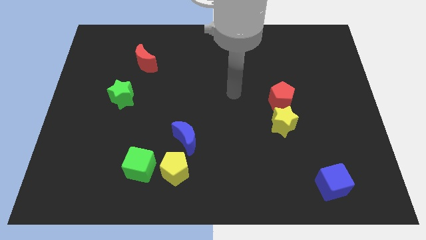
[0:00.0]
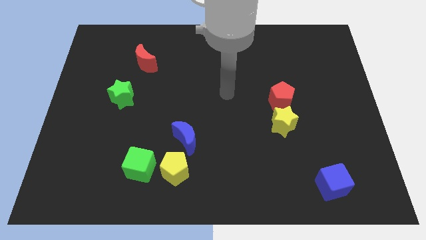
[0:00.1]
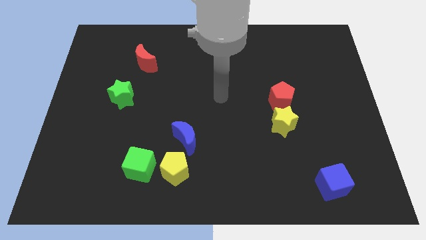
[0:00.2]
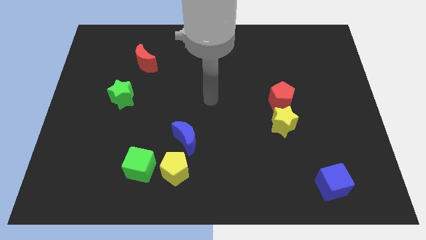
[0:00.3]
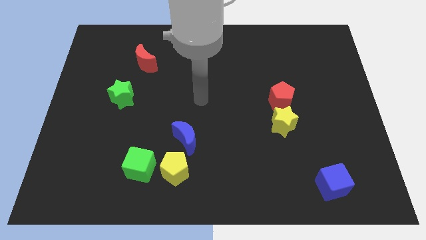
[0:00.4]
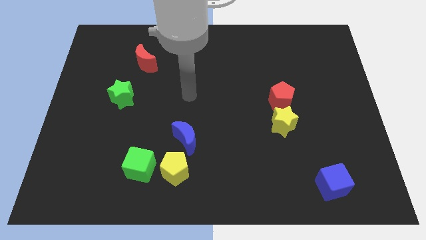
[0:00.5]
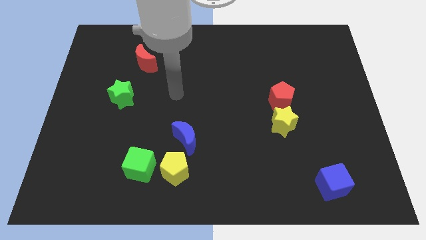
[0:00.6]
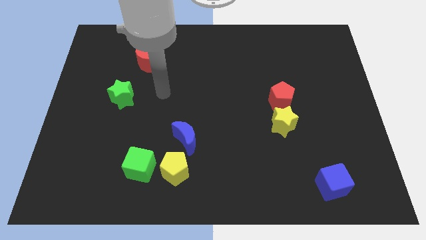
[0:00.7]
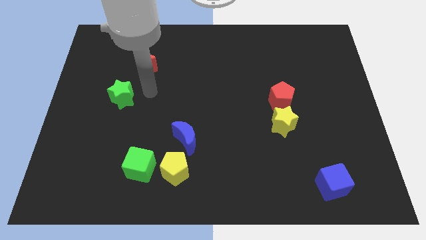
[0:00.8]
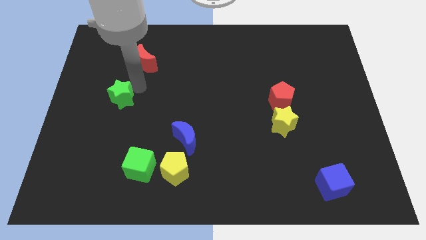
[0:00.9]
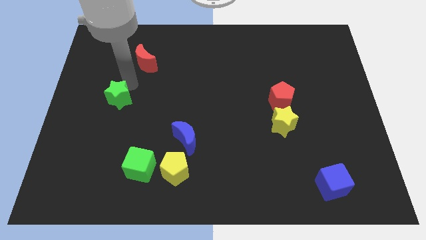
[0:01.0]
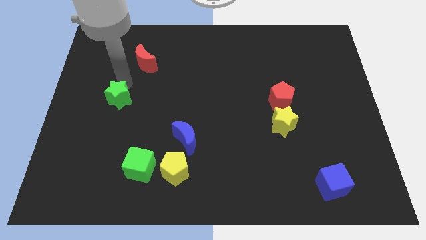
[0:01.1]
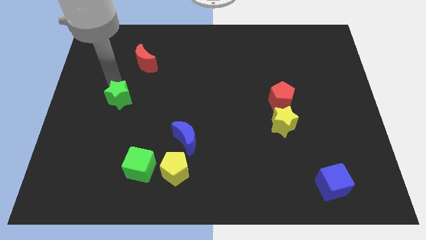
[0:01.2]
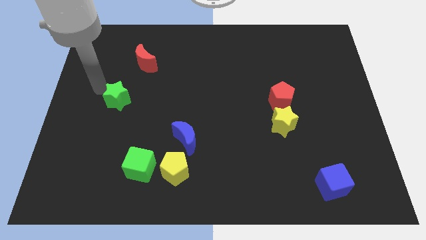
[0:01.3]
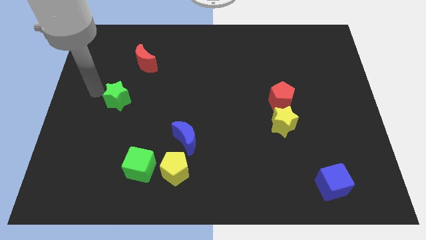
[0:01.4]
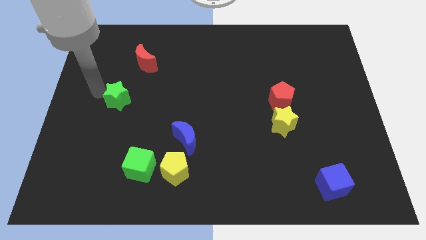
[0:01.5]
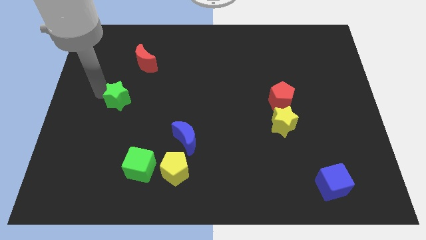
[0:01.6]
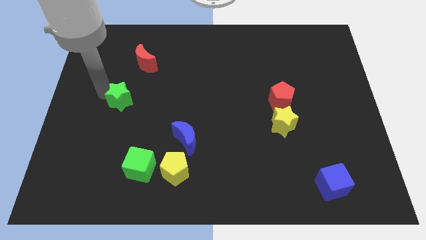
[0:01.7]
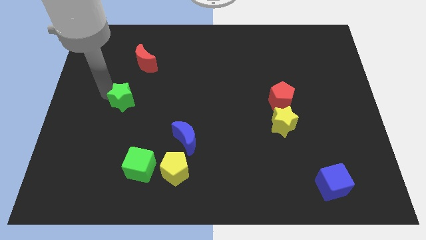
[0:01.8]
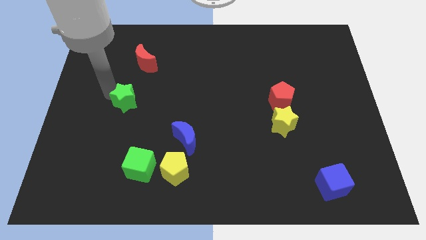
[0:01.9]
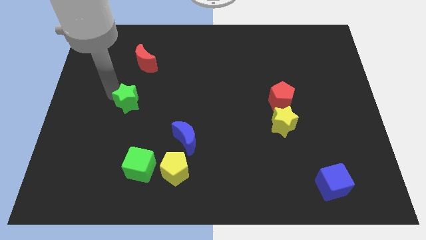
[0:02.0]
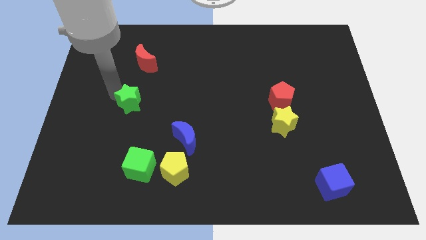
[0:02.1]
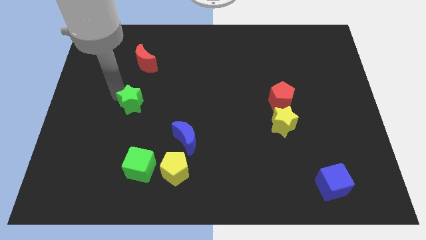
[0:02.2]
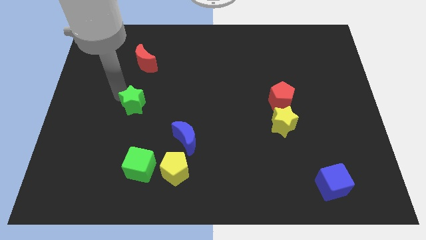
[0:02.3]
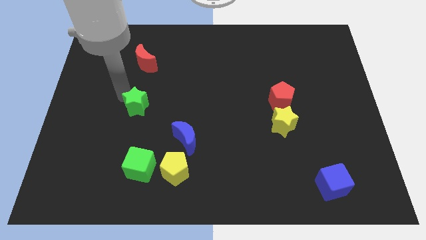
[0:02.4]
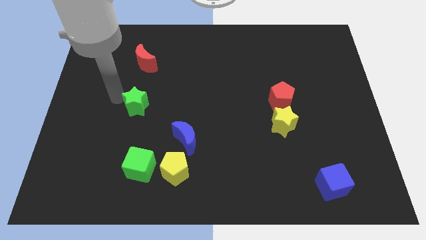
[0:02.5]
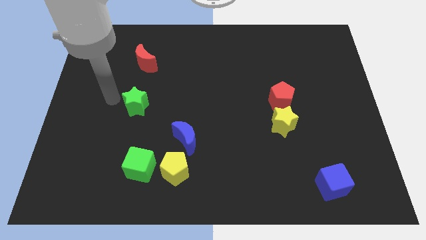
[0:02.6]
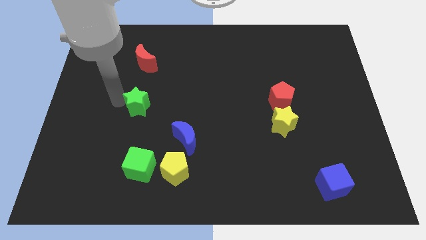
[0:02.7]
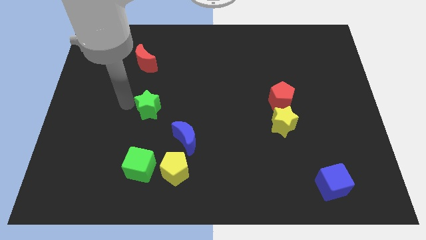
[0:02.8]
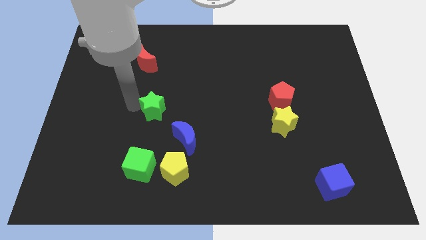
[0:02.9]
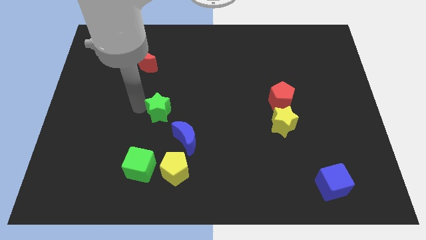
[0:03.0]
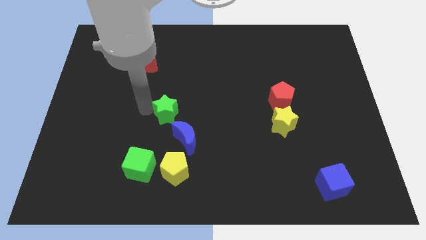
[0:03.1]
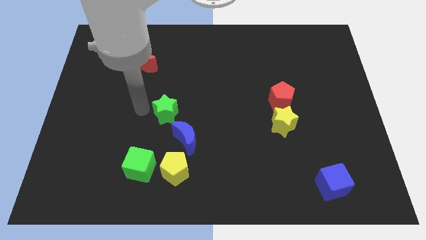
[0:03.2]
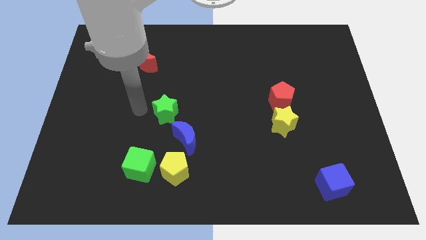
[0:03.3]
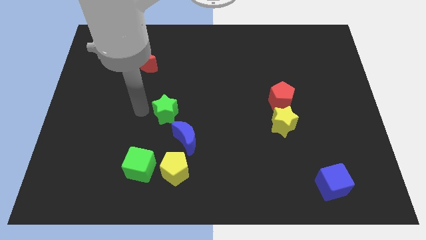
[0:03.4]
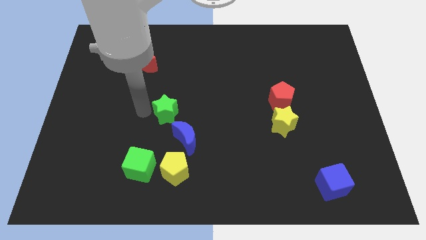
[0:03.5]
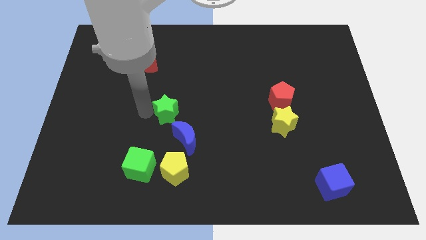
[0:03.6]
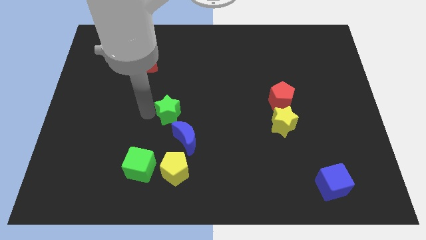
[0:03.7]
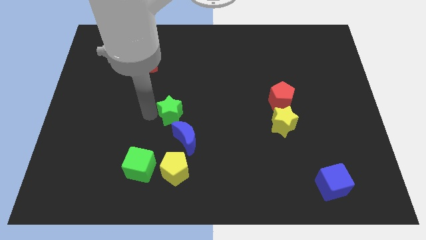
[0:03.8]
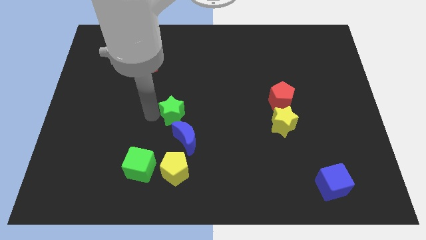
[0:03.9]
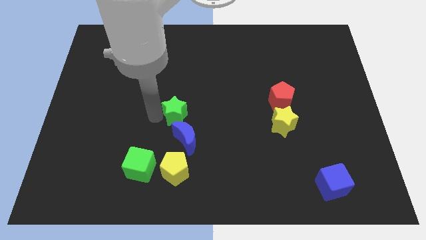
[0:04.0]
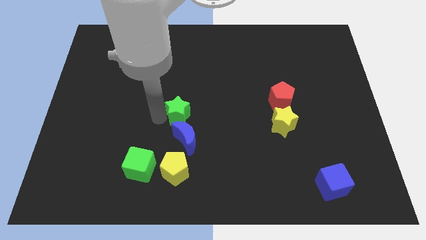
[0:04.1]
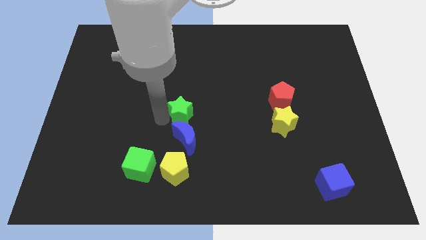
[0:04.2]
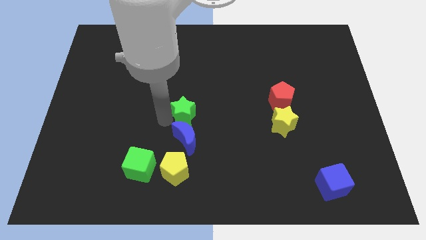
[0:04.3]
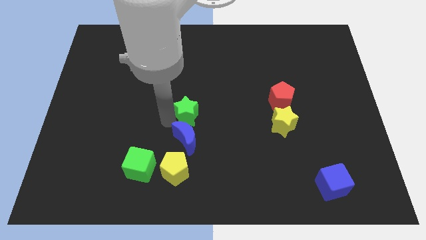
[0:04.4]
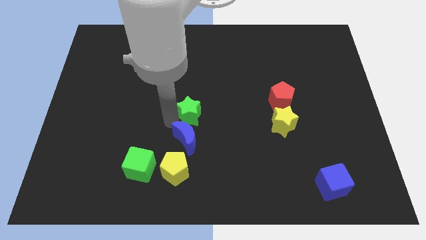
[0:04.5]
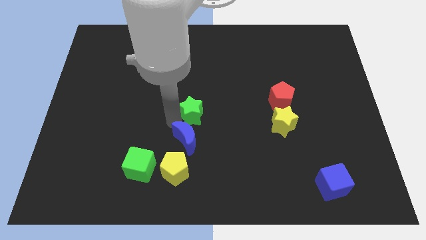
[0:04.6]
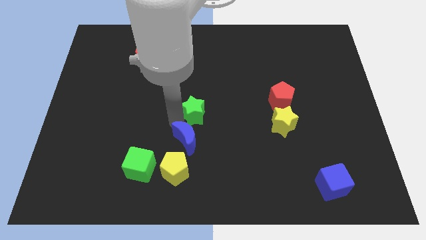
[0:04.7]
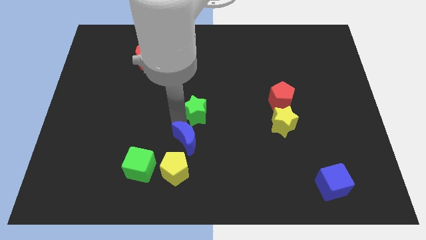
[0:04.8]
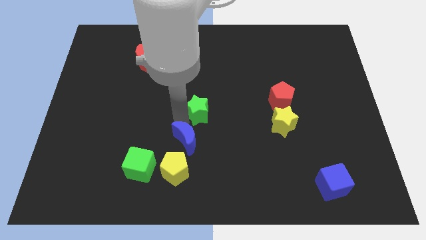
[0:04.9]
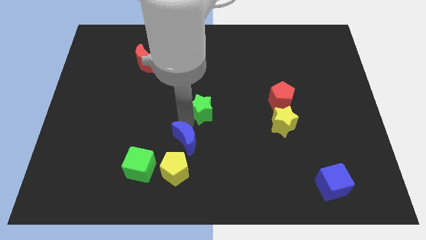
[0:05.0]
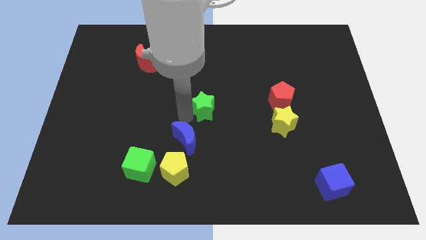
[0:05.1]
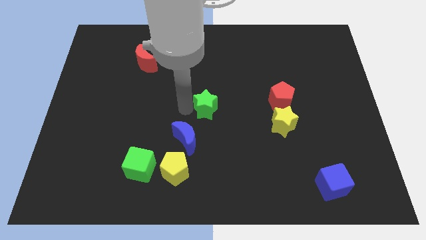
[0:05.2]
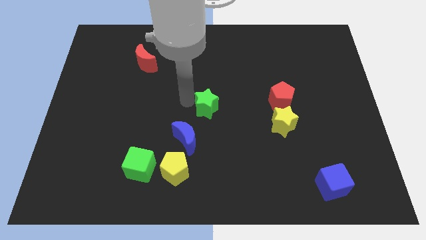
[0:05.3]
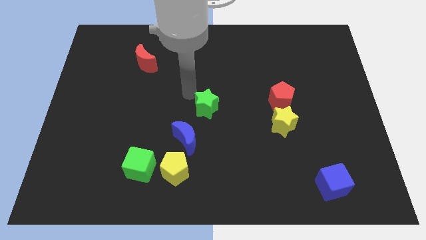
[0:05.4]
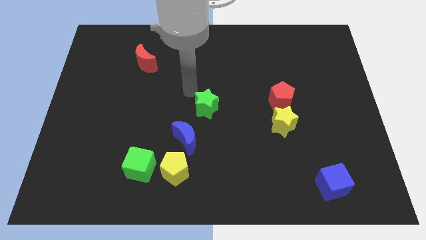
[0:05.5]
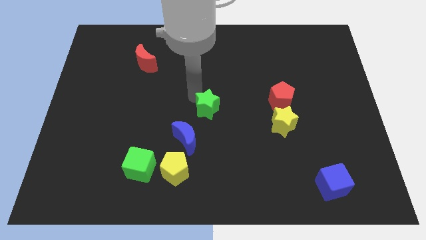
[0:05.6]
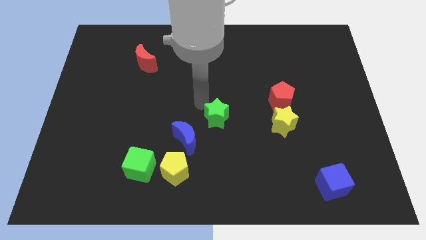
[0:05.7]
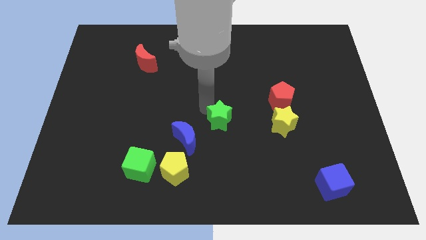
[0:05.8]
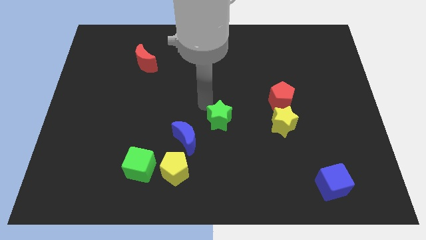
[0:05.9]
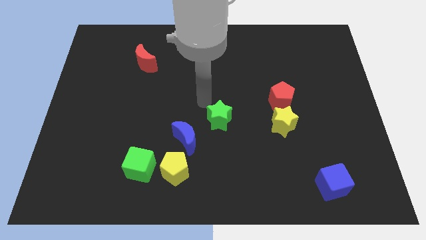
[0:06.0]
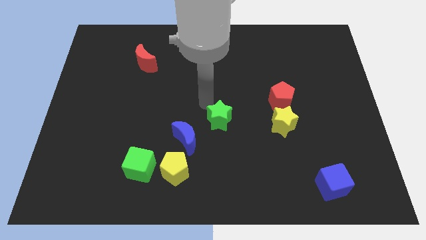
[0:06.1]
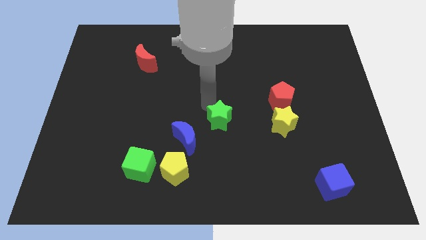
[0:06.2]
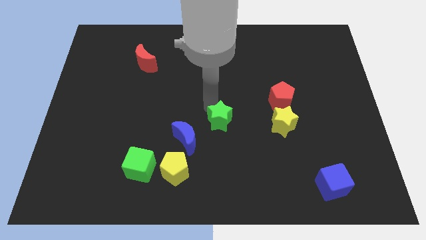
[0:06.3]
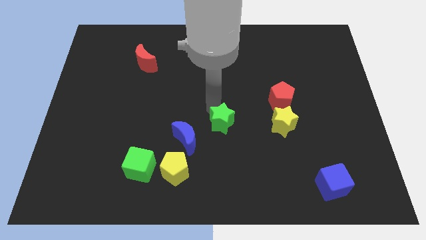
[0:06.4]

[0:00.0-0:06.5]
push the green star just right of the blue moon
